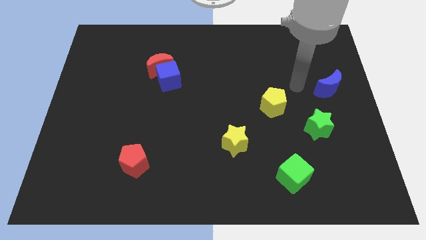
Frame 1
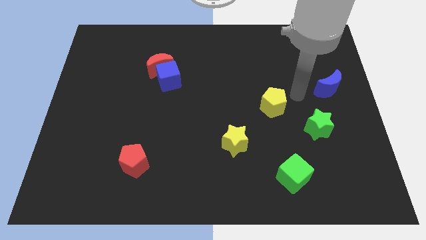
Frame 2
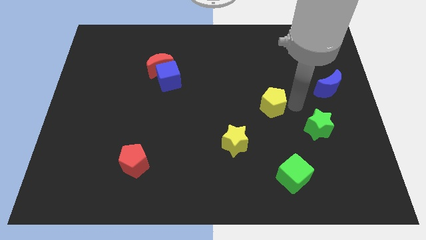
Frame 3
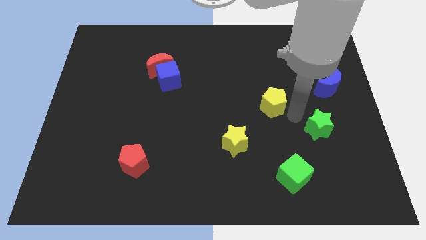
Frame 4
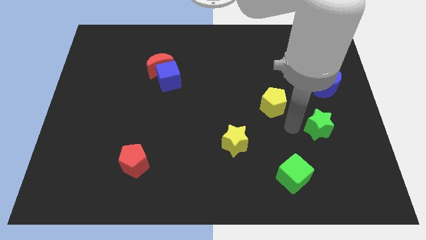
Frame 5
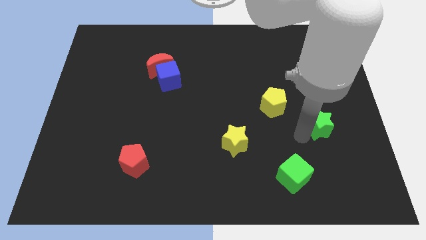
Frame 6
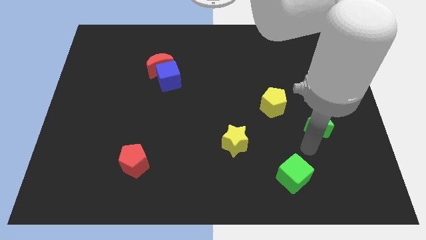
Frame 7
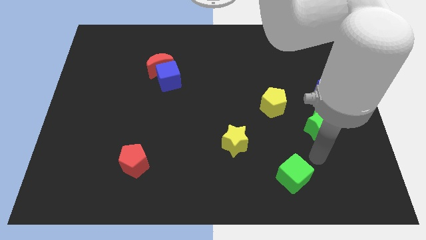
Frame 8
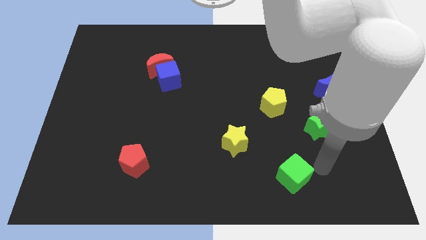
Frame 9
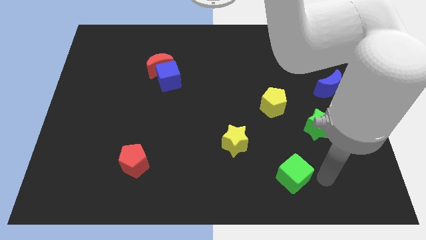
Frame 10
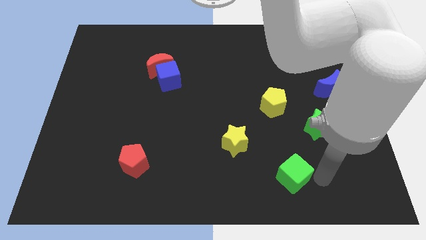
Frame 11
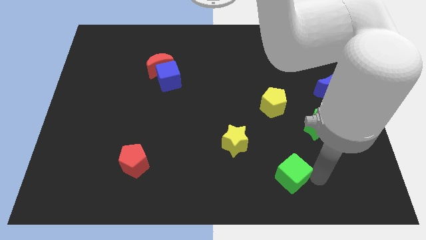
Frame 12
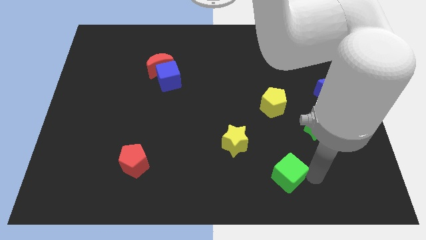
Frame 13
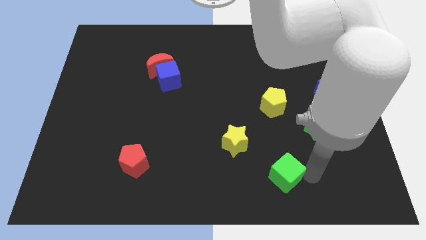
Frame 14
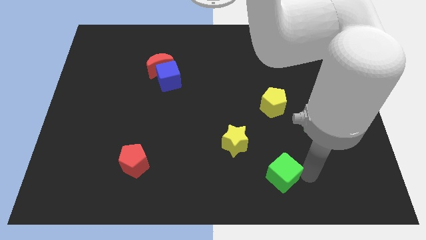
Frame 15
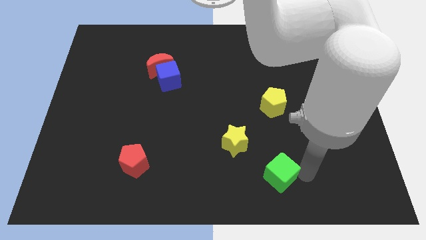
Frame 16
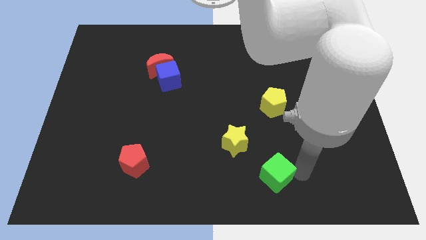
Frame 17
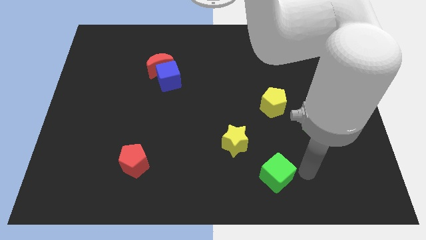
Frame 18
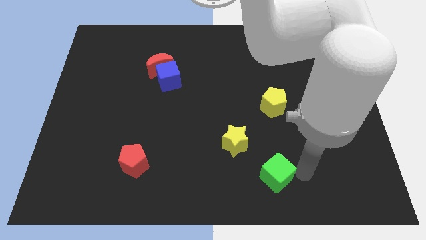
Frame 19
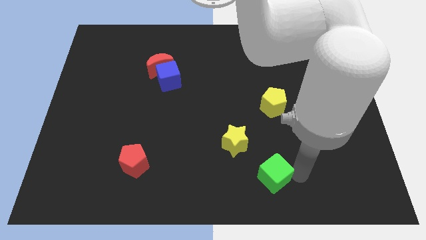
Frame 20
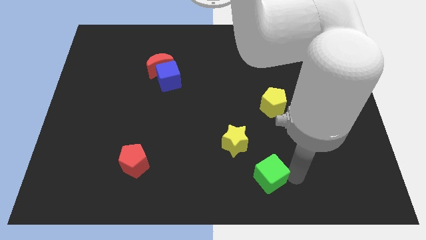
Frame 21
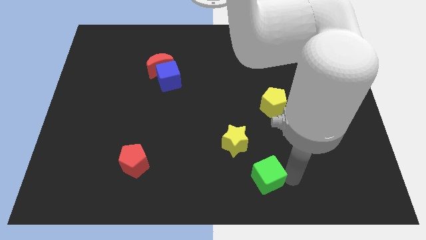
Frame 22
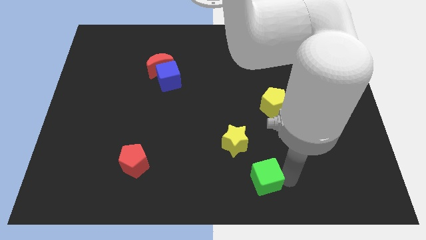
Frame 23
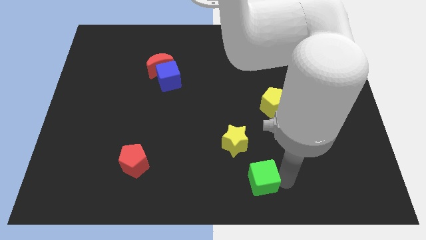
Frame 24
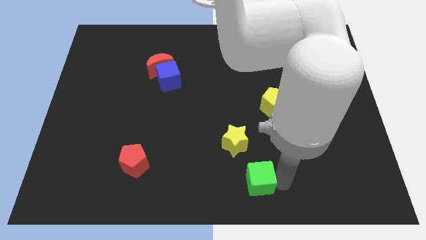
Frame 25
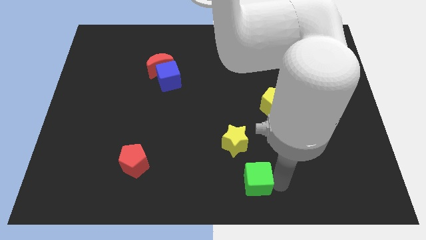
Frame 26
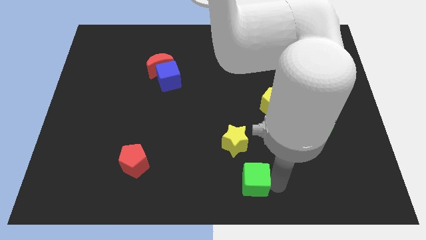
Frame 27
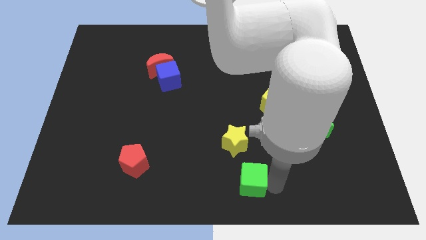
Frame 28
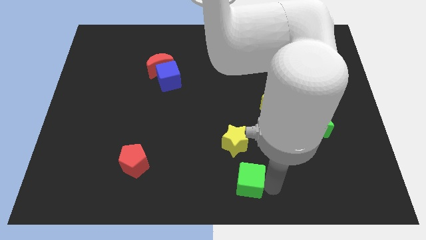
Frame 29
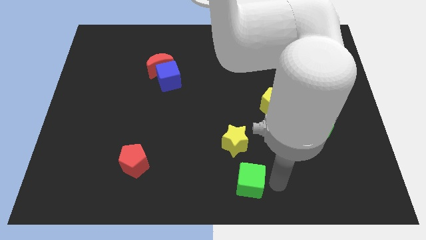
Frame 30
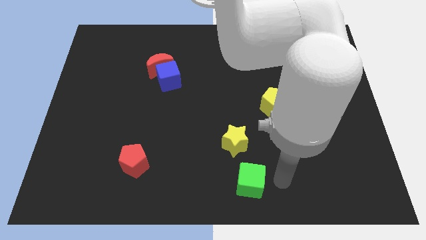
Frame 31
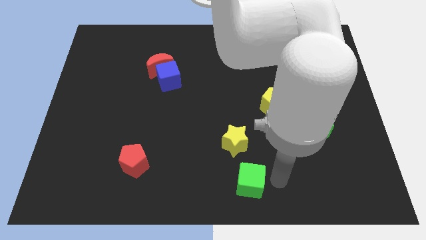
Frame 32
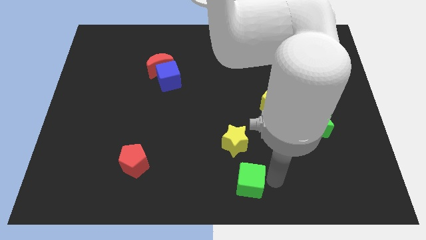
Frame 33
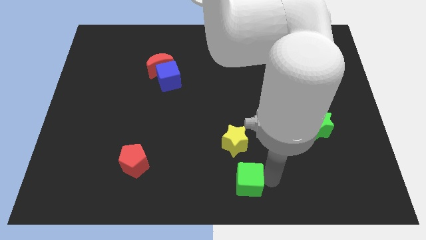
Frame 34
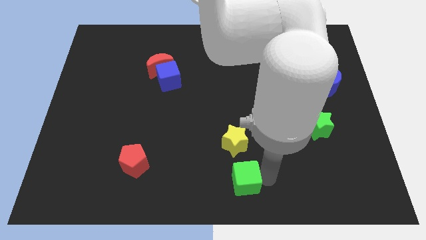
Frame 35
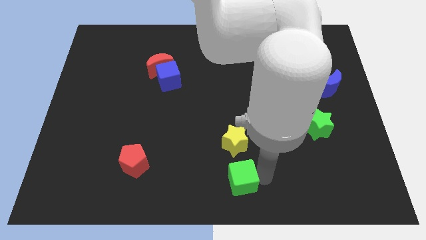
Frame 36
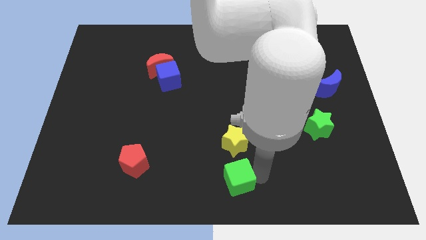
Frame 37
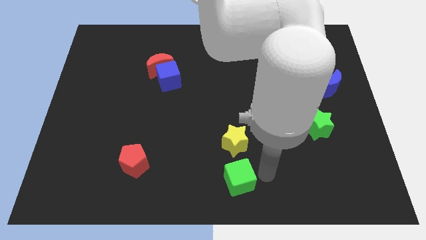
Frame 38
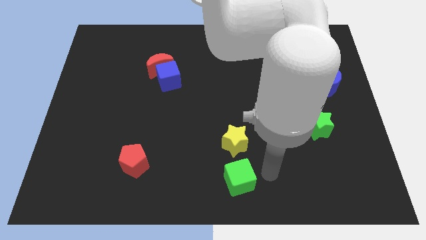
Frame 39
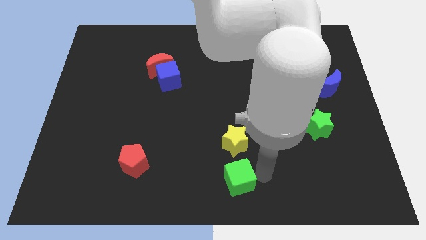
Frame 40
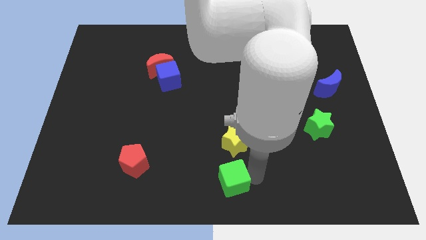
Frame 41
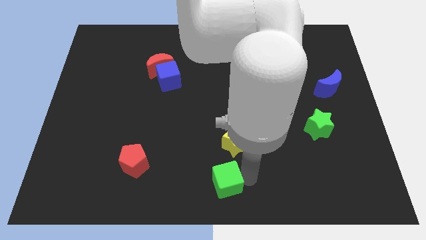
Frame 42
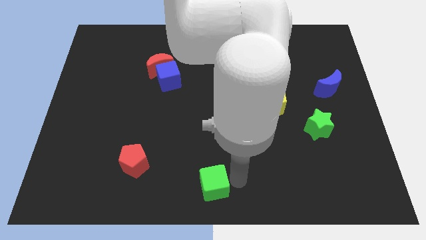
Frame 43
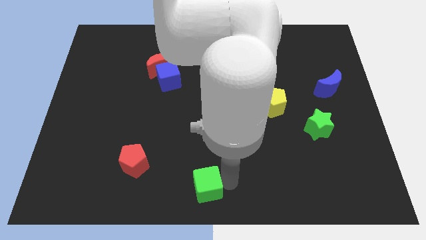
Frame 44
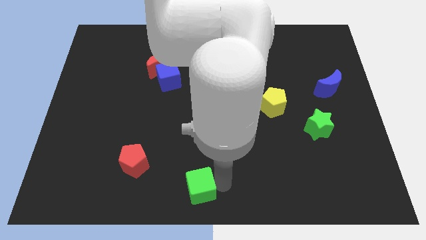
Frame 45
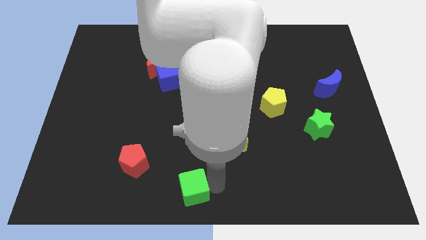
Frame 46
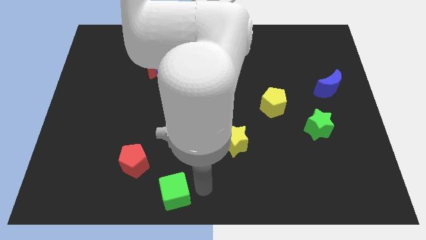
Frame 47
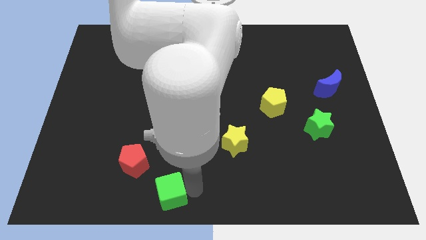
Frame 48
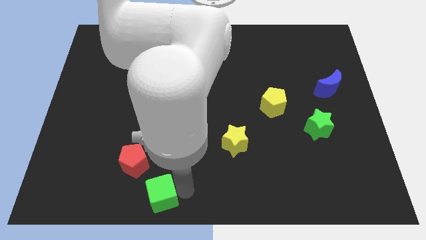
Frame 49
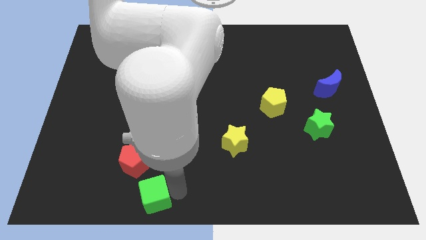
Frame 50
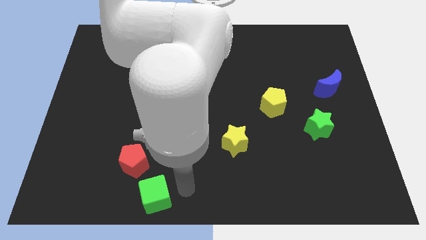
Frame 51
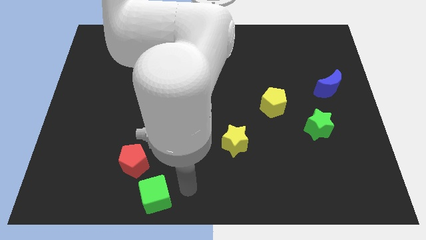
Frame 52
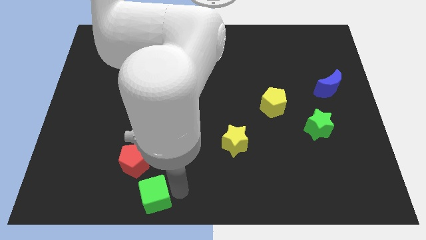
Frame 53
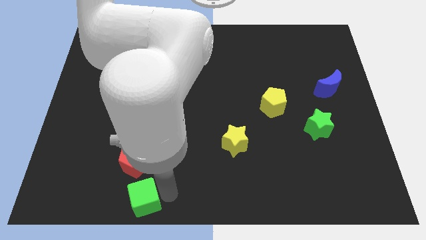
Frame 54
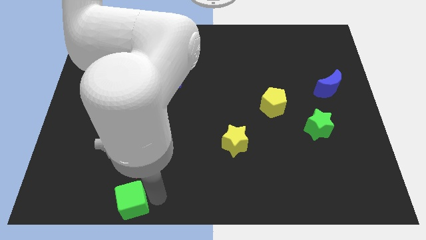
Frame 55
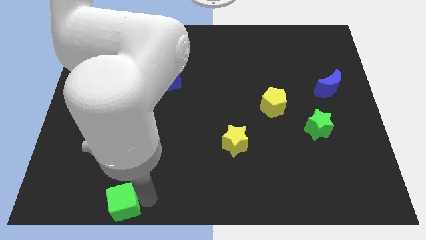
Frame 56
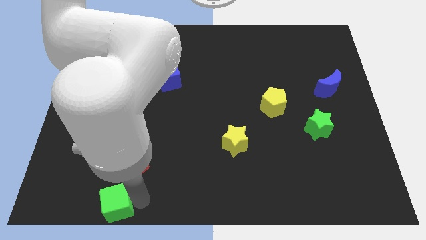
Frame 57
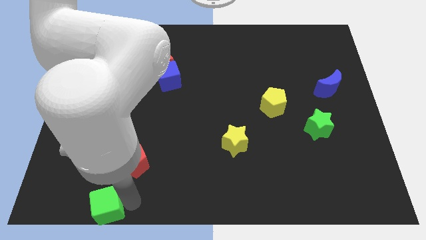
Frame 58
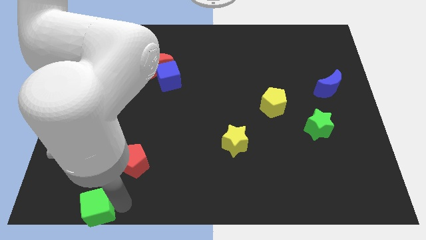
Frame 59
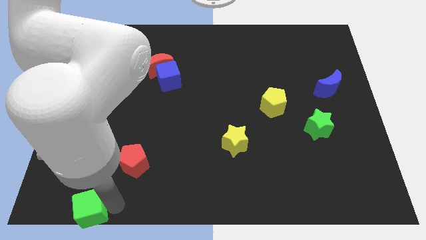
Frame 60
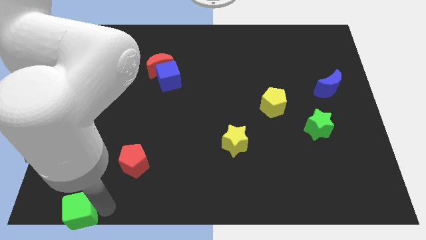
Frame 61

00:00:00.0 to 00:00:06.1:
move the green cube to the bottom left

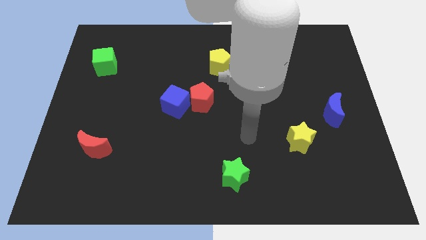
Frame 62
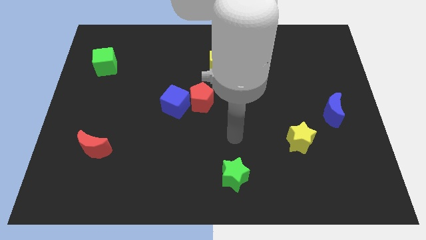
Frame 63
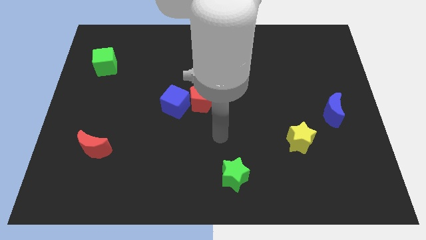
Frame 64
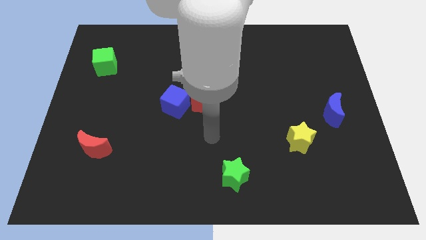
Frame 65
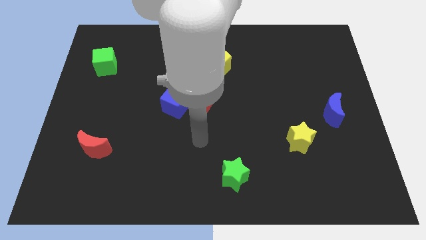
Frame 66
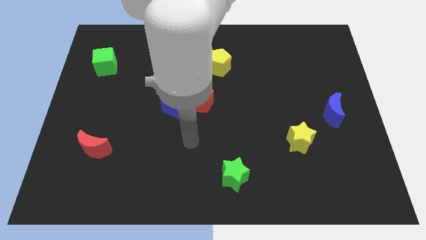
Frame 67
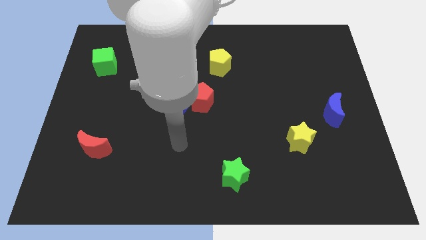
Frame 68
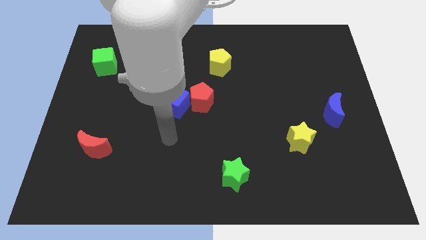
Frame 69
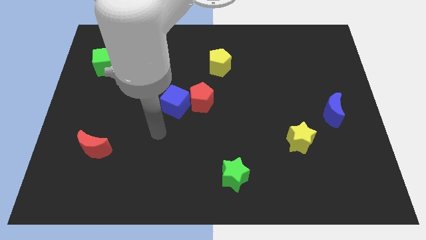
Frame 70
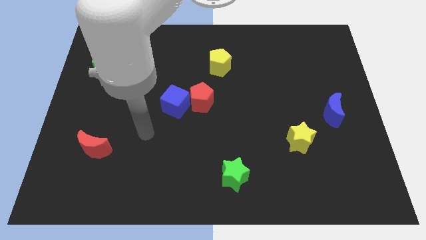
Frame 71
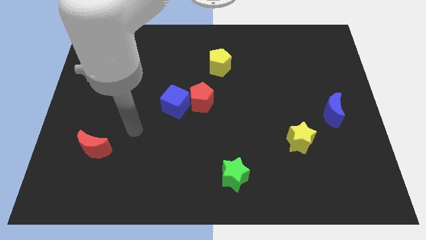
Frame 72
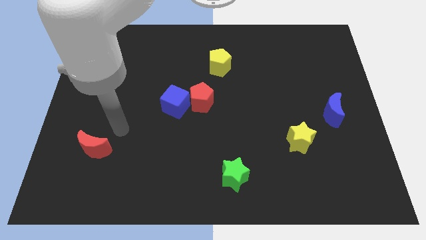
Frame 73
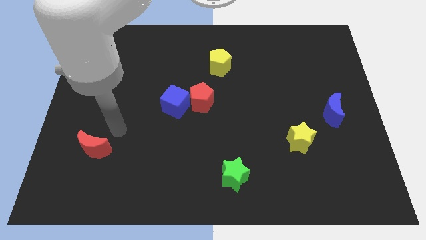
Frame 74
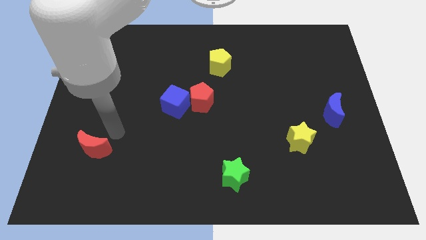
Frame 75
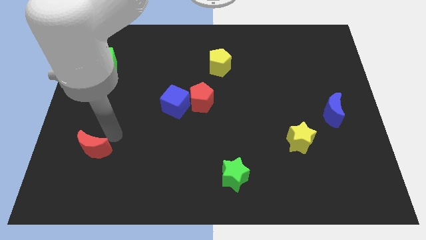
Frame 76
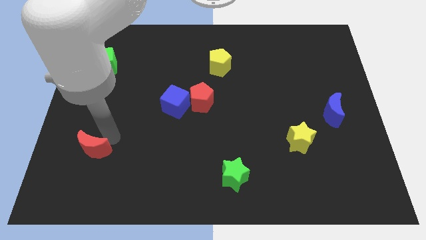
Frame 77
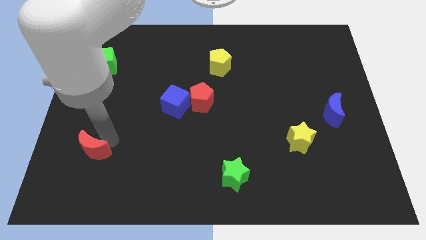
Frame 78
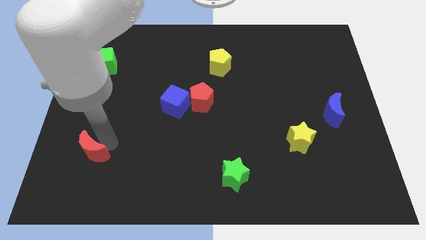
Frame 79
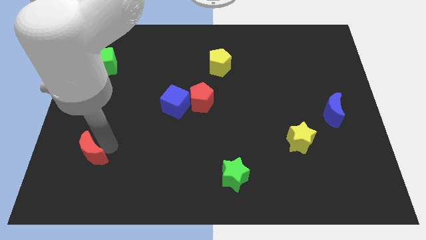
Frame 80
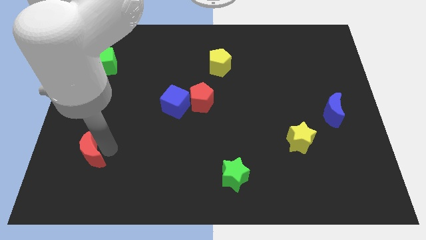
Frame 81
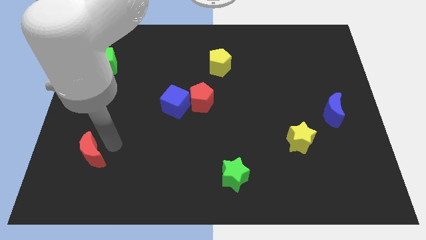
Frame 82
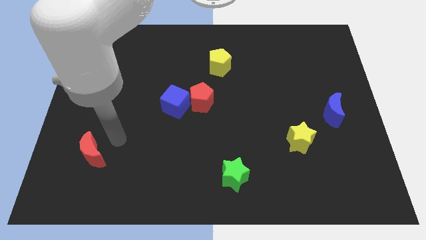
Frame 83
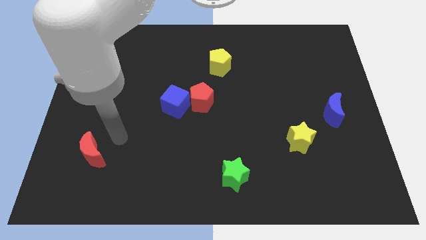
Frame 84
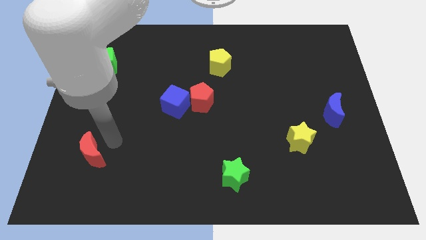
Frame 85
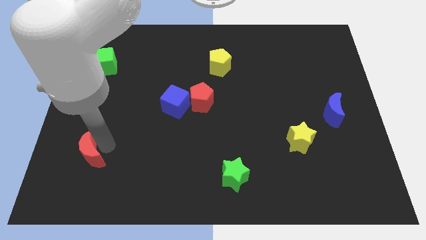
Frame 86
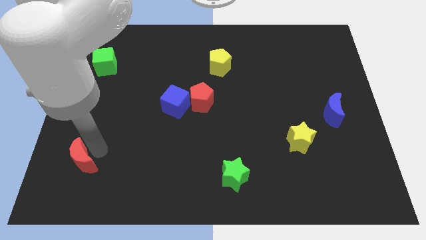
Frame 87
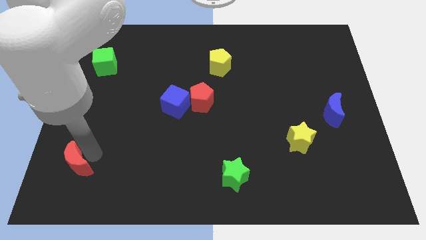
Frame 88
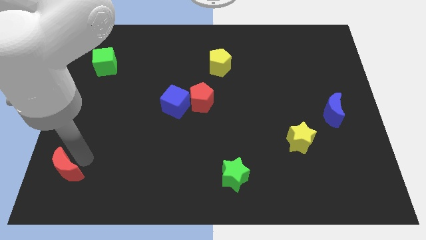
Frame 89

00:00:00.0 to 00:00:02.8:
push the red moon to the lower left corner
